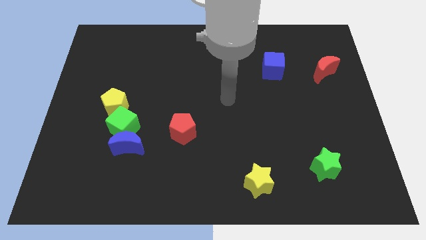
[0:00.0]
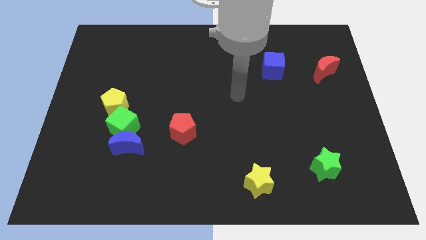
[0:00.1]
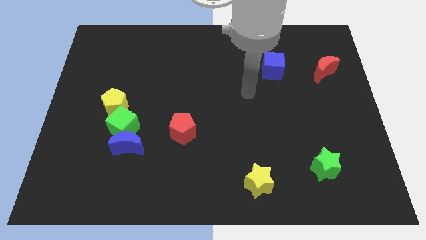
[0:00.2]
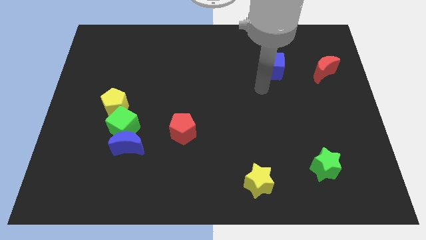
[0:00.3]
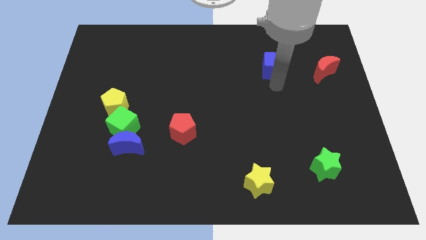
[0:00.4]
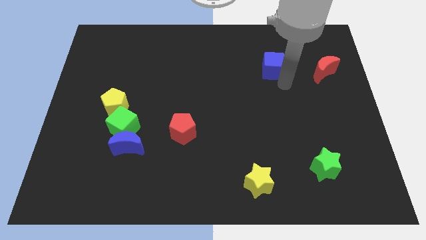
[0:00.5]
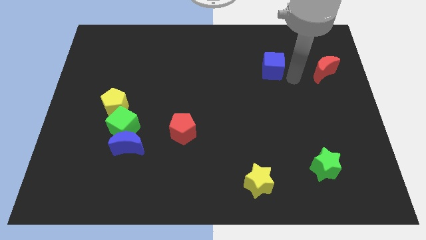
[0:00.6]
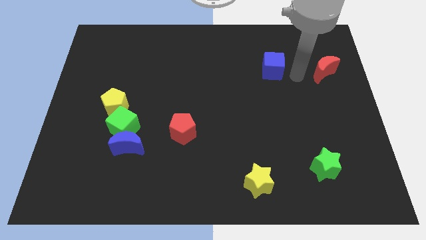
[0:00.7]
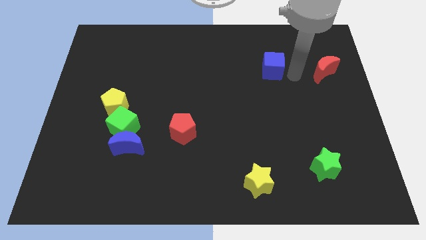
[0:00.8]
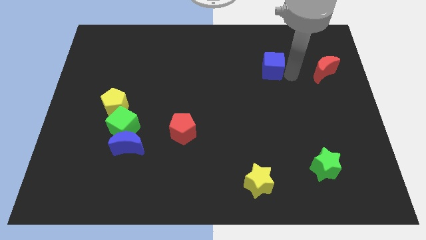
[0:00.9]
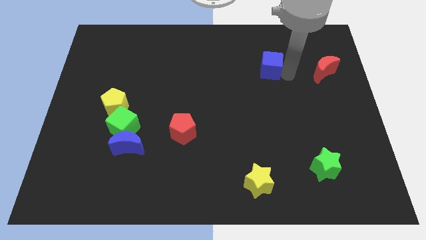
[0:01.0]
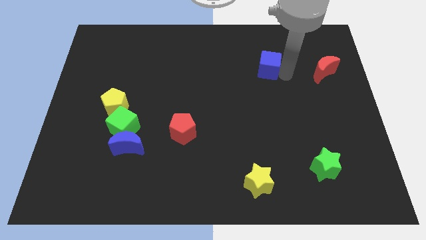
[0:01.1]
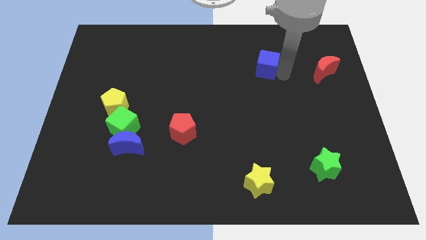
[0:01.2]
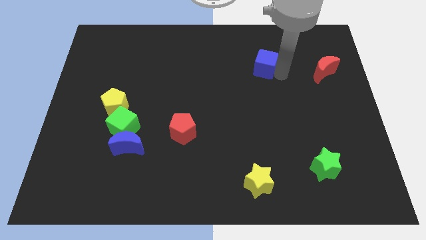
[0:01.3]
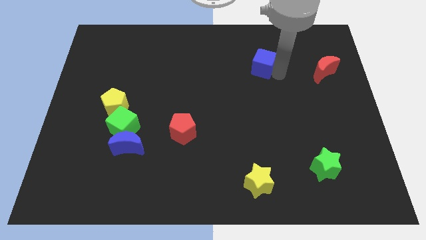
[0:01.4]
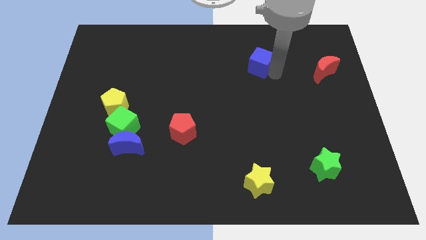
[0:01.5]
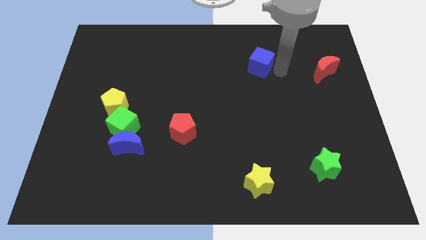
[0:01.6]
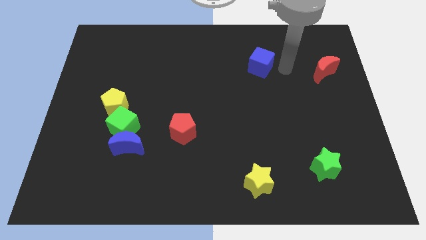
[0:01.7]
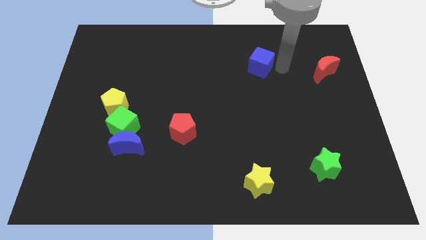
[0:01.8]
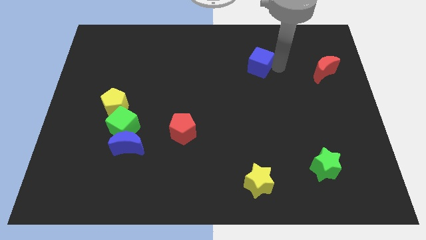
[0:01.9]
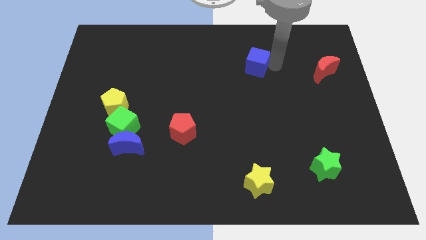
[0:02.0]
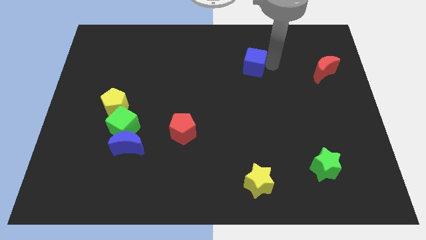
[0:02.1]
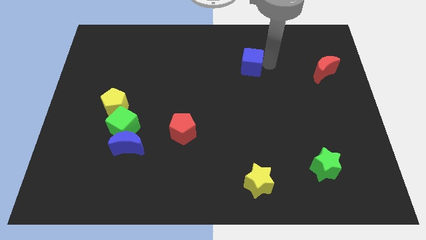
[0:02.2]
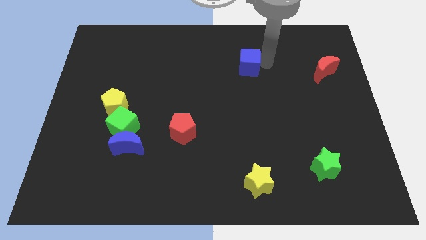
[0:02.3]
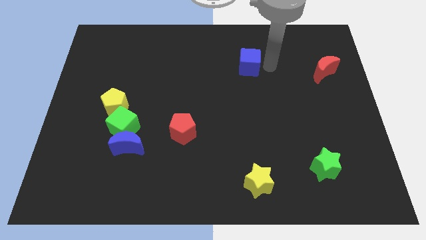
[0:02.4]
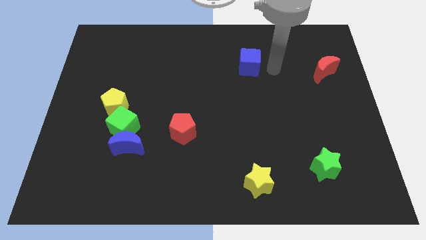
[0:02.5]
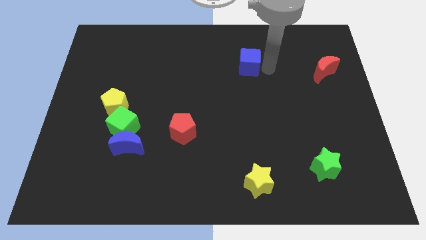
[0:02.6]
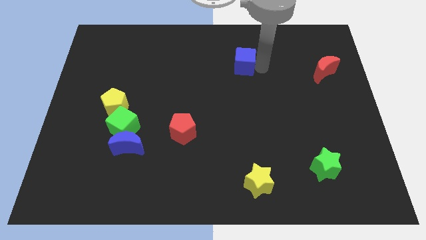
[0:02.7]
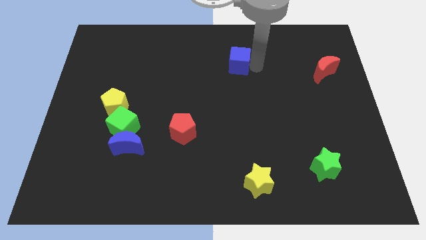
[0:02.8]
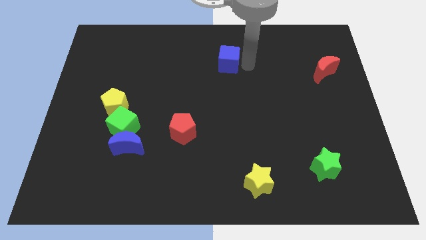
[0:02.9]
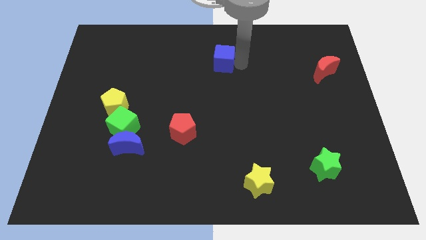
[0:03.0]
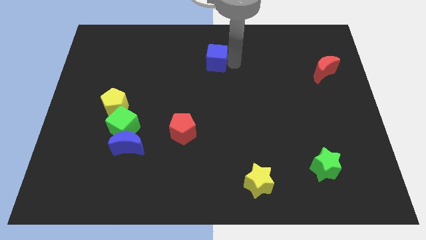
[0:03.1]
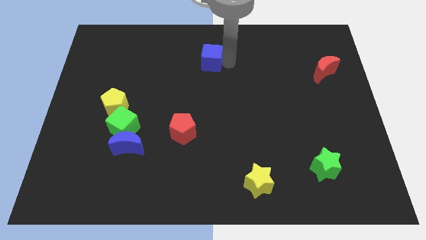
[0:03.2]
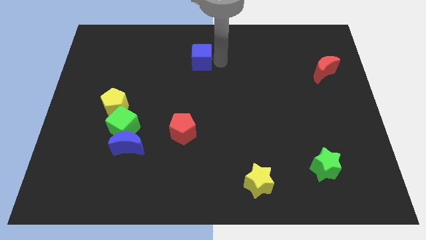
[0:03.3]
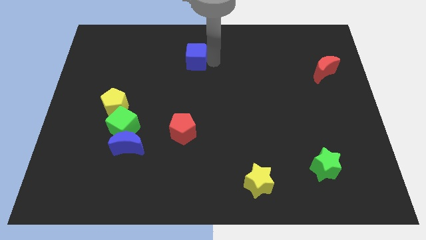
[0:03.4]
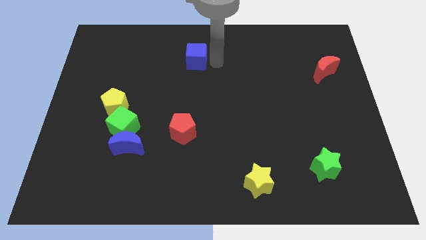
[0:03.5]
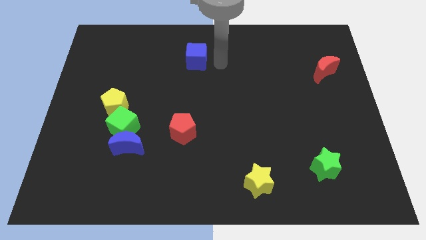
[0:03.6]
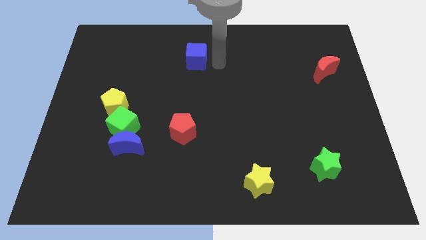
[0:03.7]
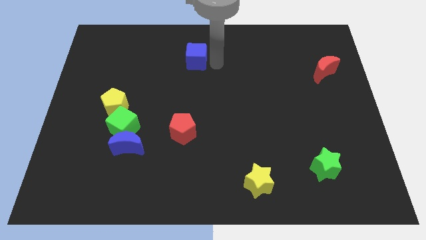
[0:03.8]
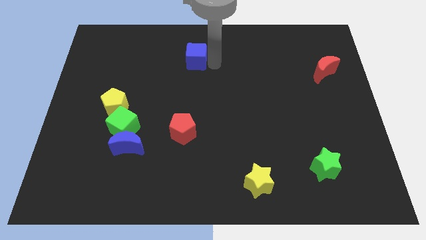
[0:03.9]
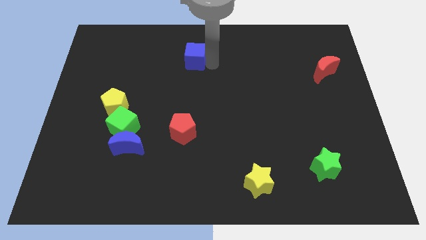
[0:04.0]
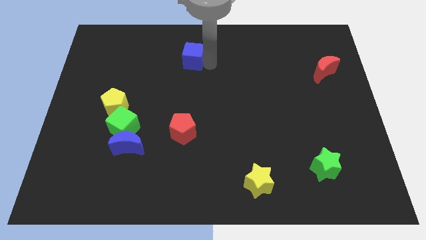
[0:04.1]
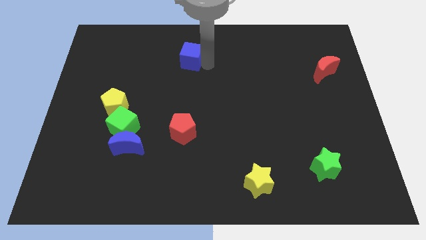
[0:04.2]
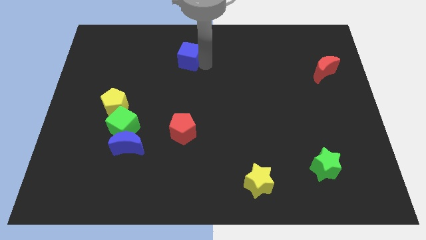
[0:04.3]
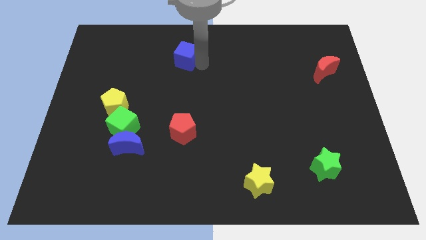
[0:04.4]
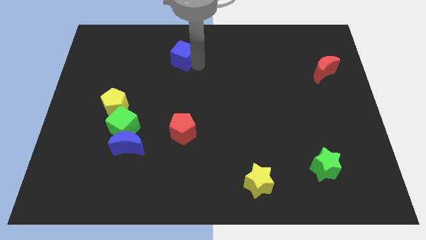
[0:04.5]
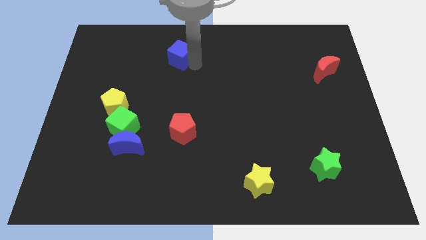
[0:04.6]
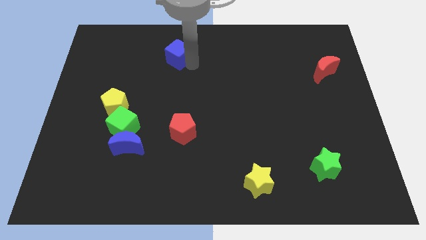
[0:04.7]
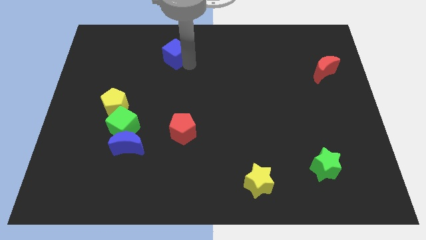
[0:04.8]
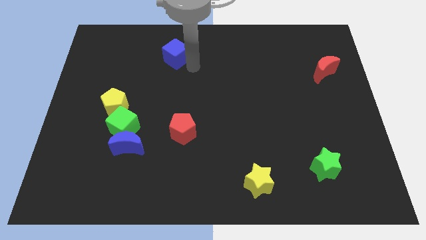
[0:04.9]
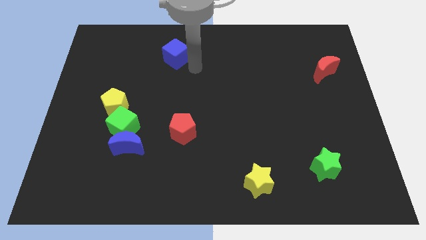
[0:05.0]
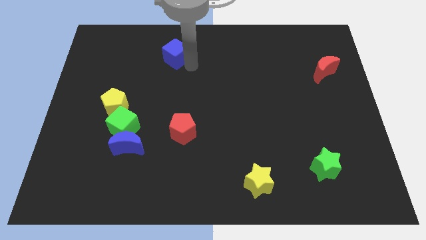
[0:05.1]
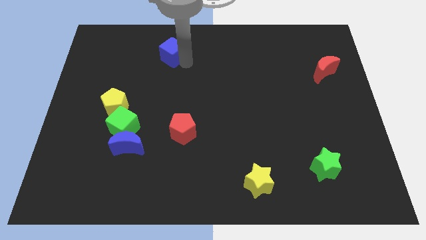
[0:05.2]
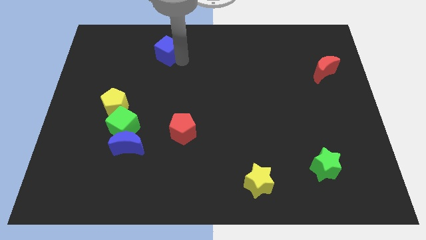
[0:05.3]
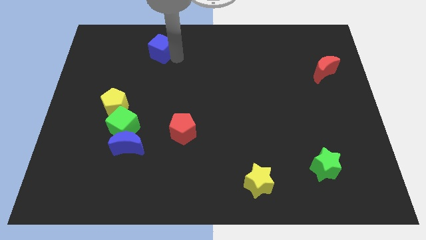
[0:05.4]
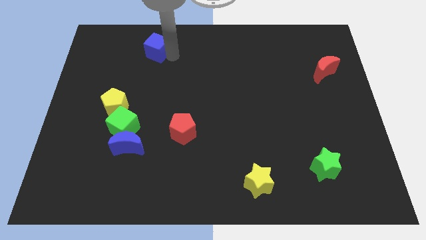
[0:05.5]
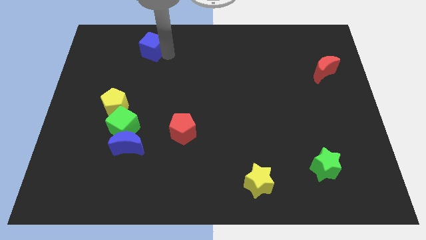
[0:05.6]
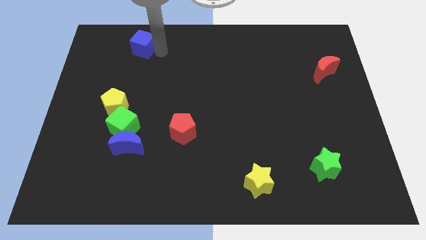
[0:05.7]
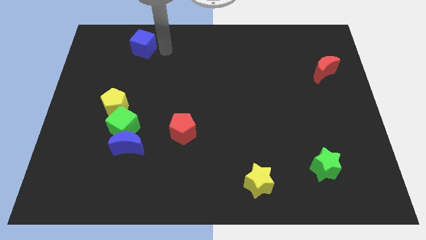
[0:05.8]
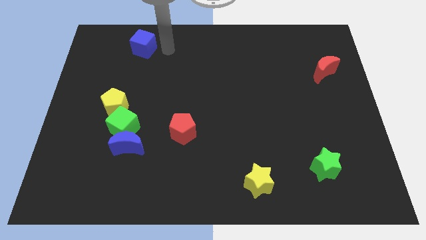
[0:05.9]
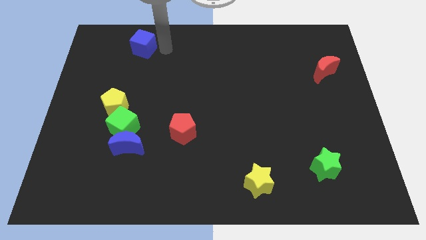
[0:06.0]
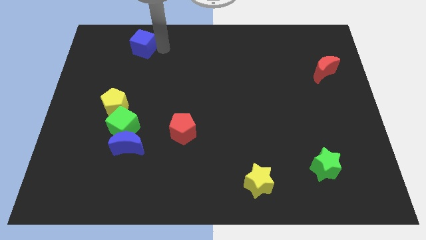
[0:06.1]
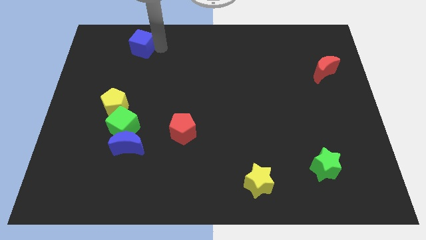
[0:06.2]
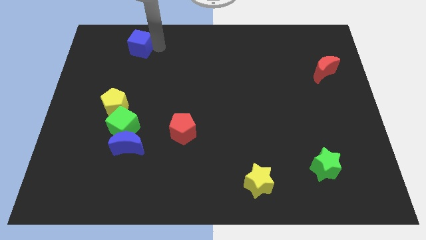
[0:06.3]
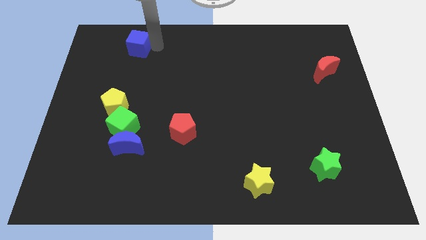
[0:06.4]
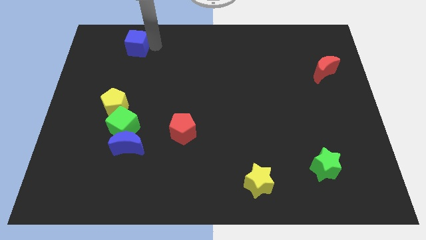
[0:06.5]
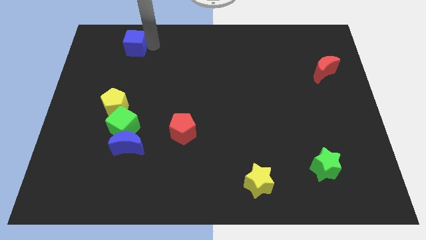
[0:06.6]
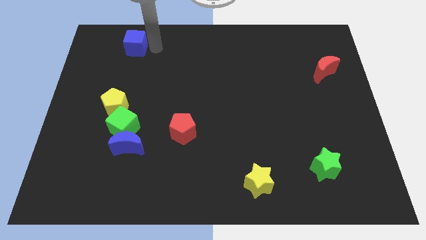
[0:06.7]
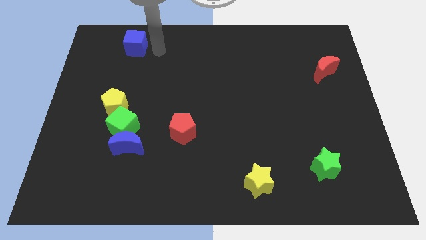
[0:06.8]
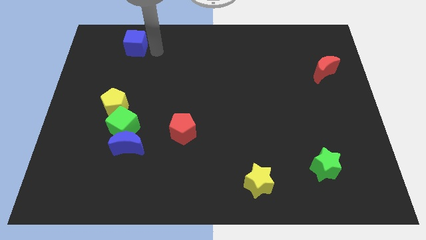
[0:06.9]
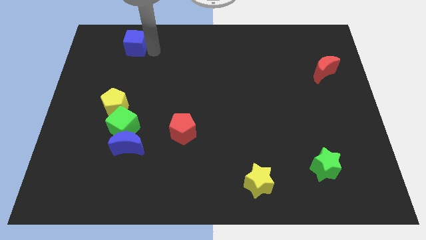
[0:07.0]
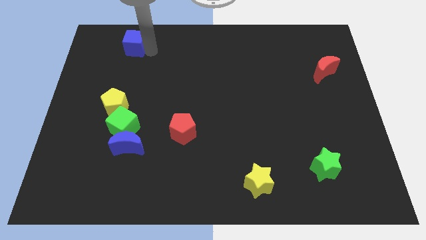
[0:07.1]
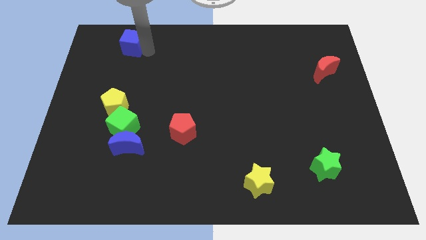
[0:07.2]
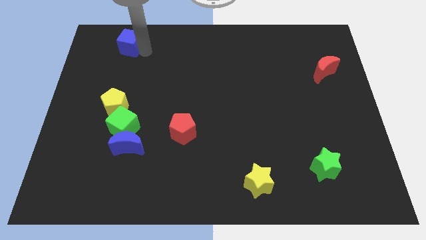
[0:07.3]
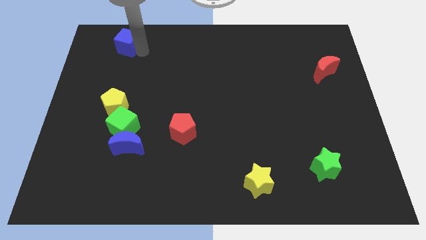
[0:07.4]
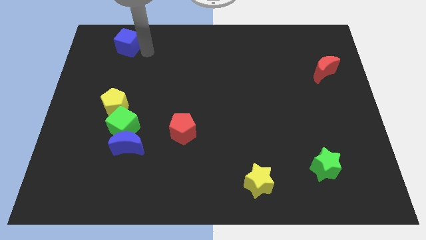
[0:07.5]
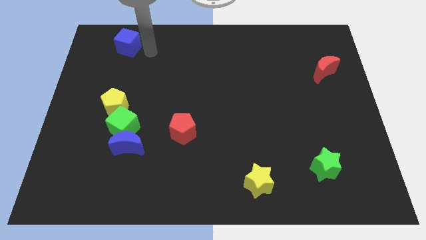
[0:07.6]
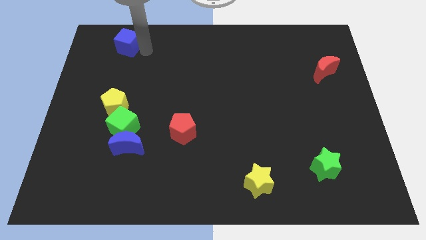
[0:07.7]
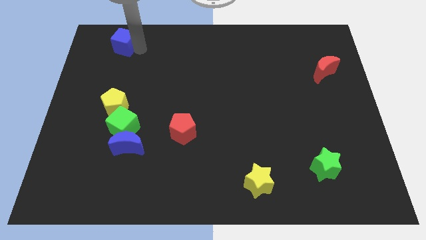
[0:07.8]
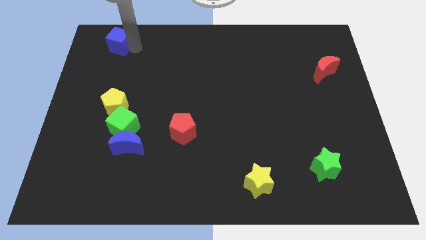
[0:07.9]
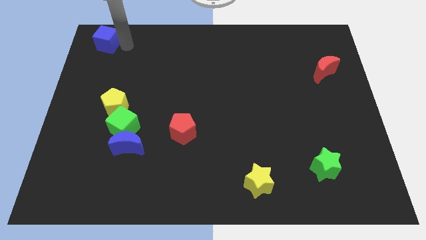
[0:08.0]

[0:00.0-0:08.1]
move the blue cube to the top left of the board
